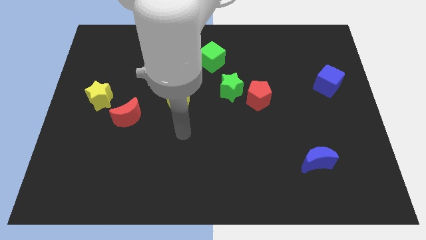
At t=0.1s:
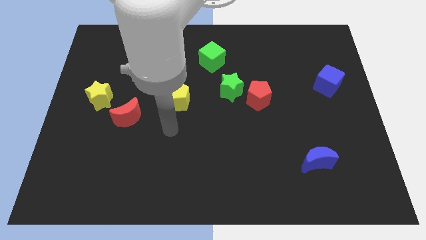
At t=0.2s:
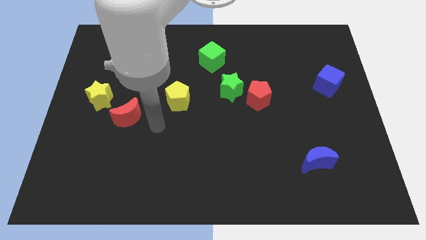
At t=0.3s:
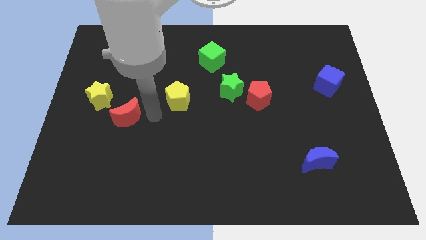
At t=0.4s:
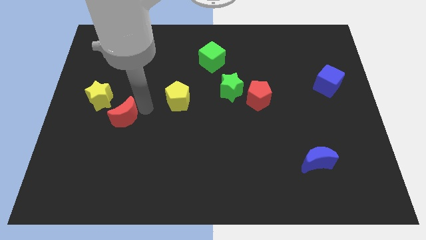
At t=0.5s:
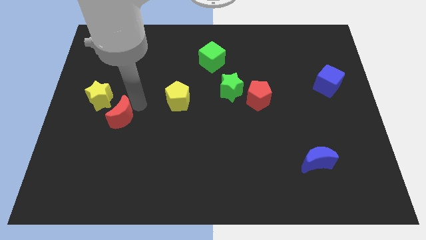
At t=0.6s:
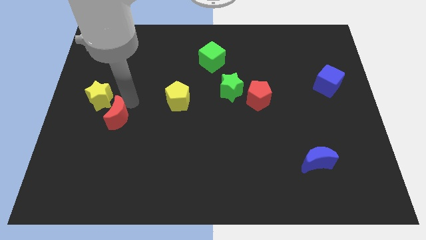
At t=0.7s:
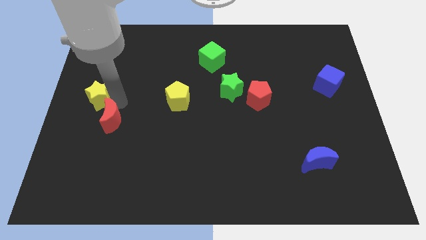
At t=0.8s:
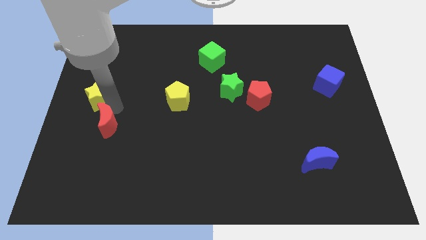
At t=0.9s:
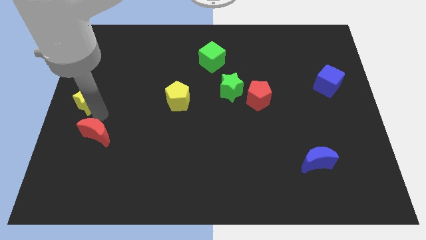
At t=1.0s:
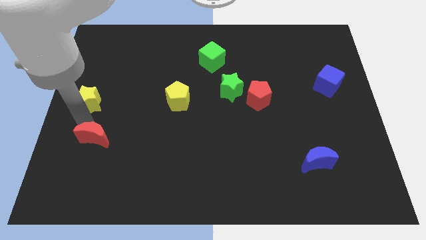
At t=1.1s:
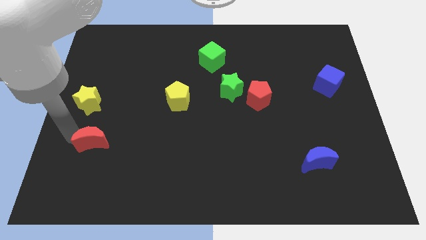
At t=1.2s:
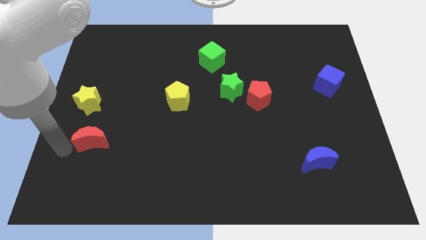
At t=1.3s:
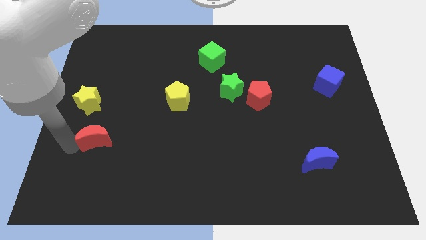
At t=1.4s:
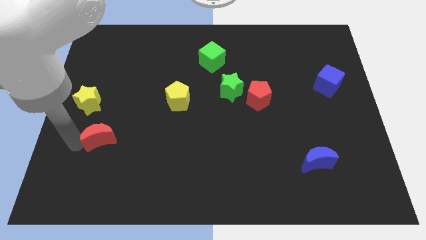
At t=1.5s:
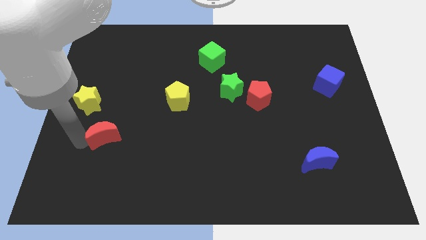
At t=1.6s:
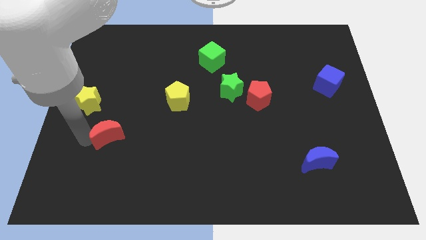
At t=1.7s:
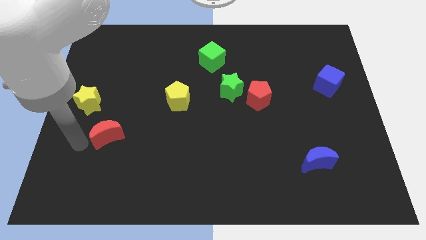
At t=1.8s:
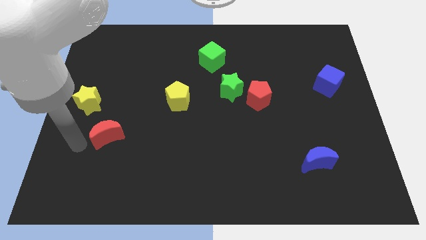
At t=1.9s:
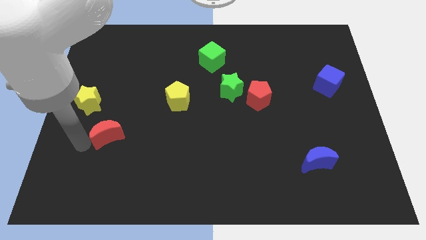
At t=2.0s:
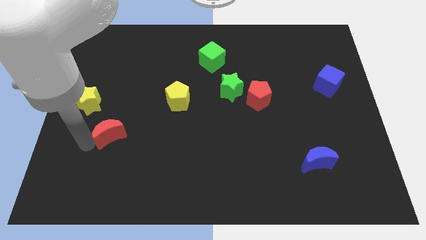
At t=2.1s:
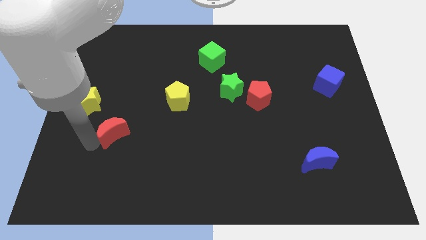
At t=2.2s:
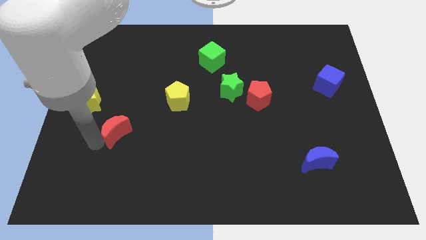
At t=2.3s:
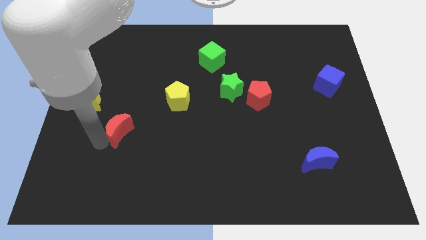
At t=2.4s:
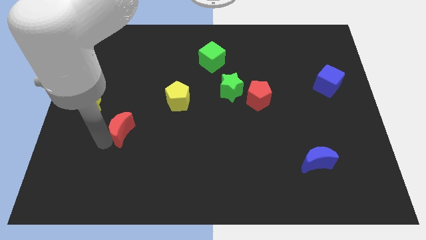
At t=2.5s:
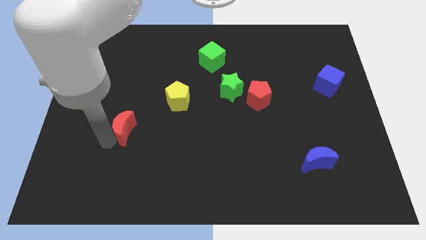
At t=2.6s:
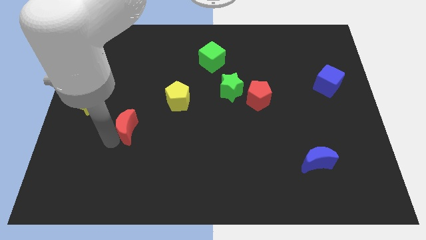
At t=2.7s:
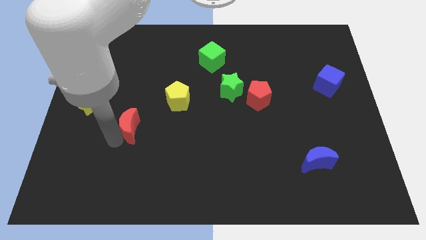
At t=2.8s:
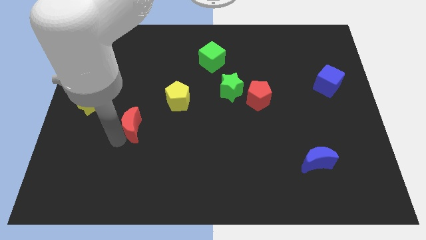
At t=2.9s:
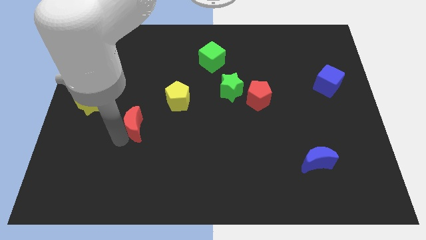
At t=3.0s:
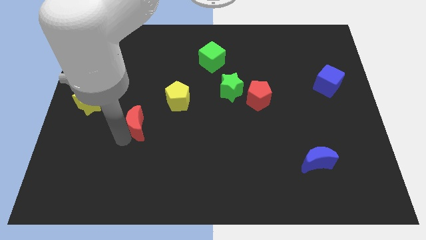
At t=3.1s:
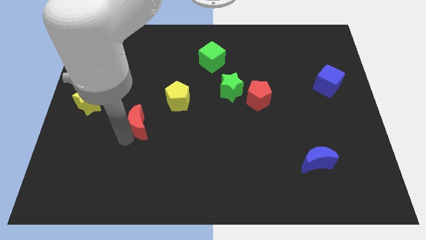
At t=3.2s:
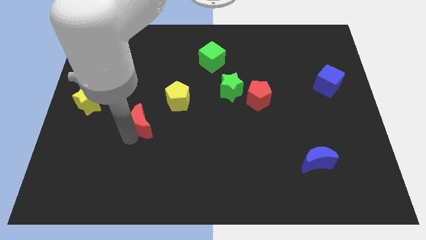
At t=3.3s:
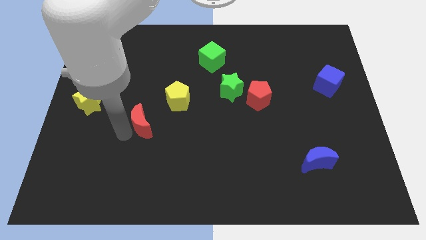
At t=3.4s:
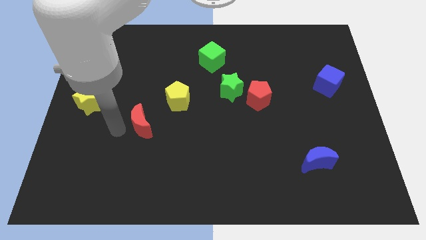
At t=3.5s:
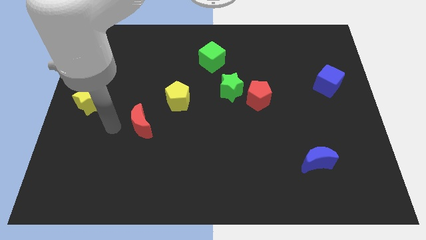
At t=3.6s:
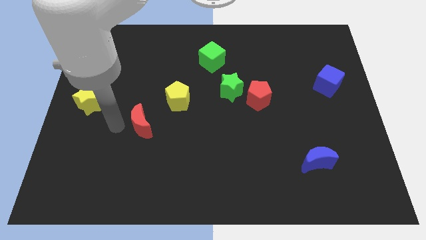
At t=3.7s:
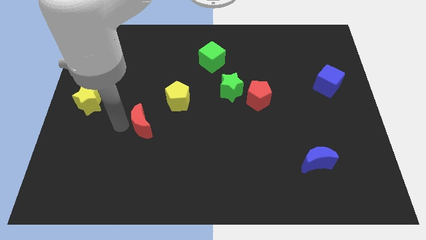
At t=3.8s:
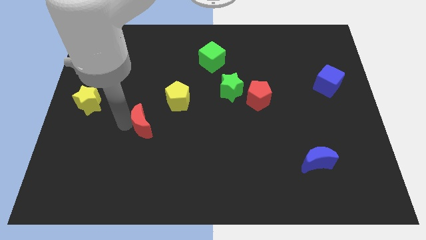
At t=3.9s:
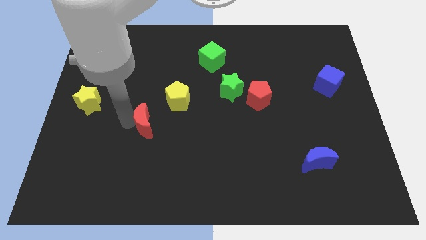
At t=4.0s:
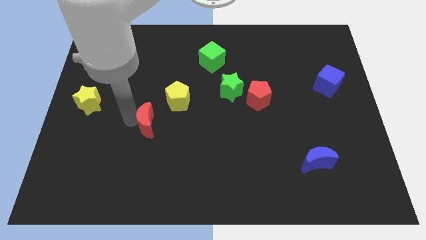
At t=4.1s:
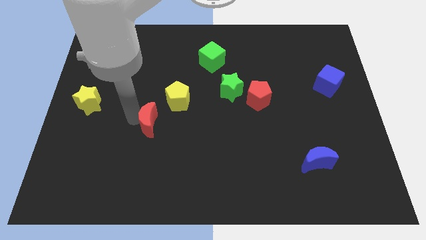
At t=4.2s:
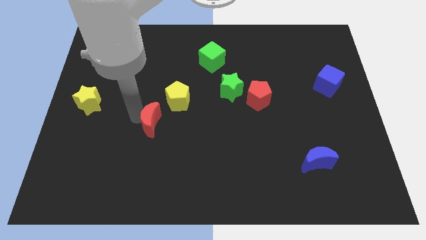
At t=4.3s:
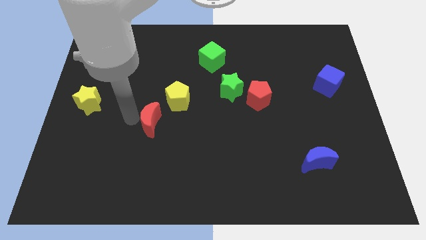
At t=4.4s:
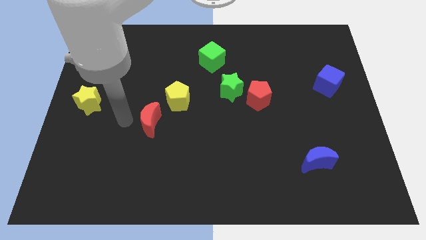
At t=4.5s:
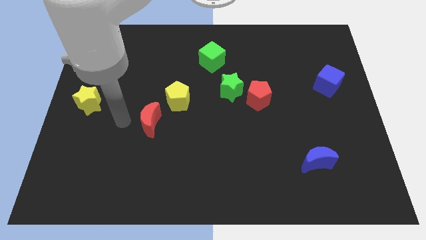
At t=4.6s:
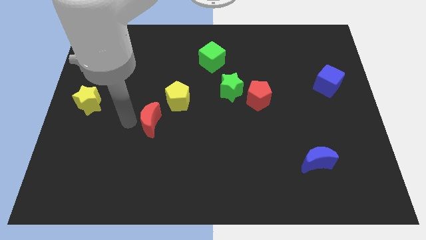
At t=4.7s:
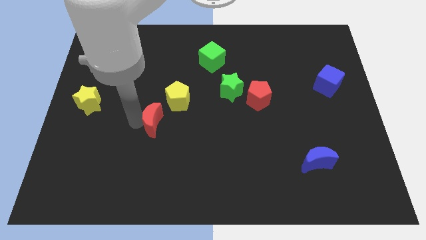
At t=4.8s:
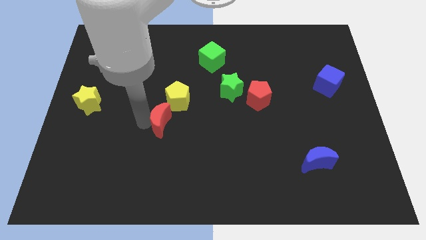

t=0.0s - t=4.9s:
move the red moon to the right slightly

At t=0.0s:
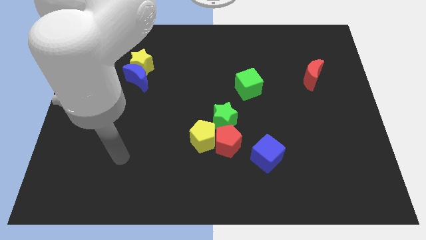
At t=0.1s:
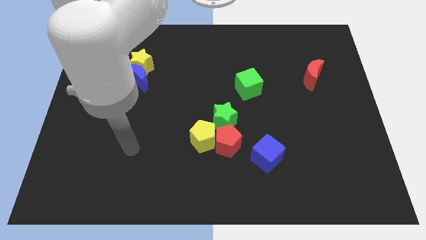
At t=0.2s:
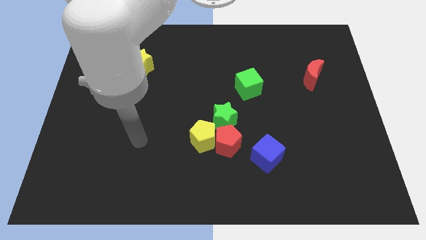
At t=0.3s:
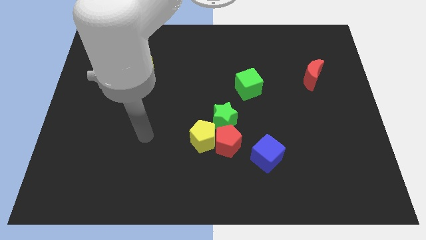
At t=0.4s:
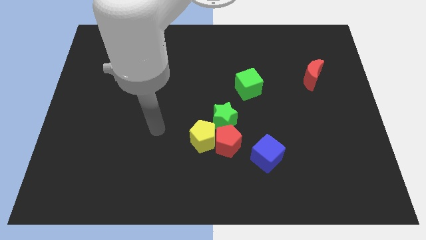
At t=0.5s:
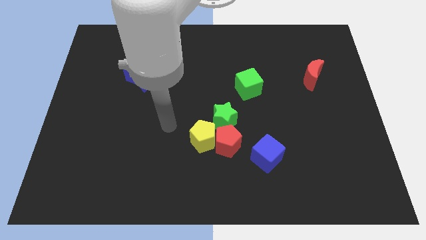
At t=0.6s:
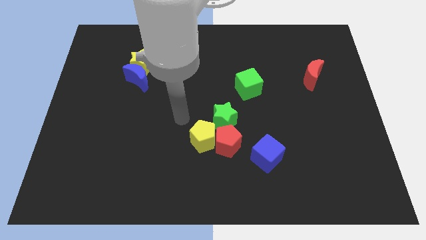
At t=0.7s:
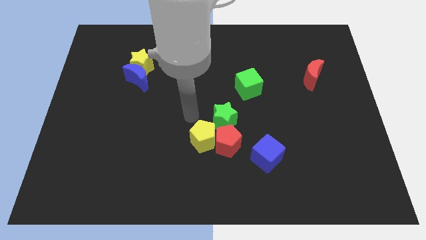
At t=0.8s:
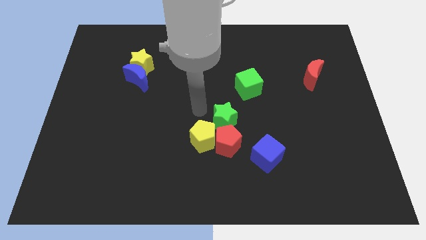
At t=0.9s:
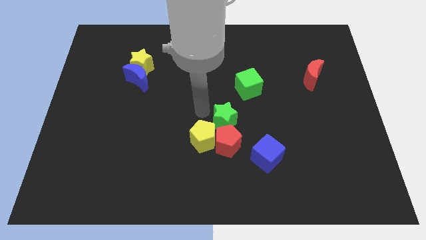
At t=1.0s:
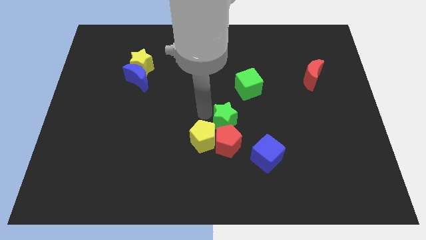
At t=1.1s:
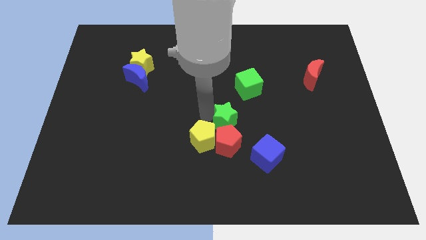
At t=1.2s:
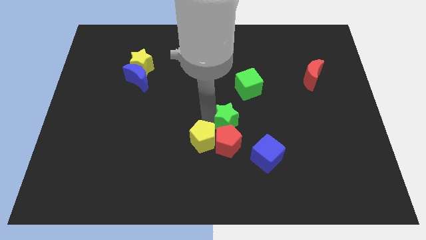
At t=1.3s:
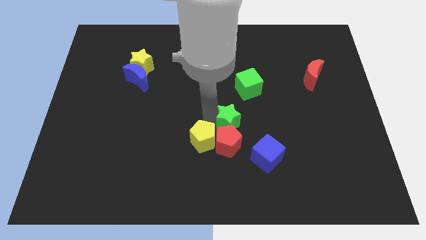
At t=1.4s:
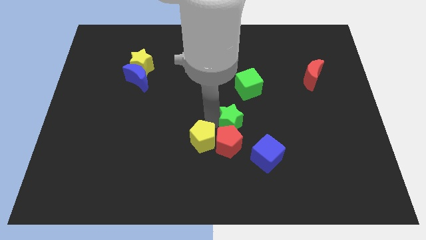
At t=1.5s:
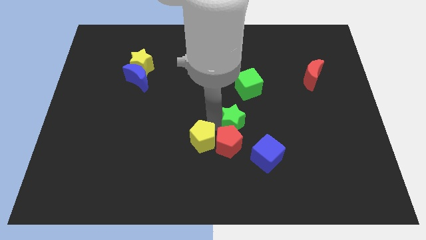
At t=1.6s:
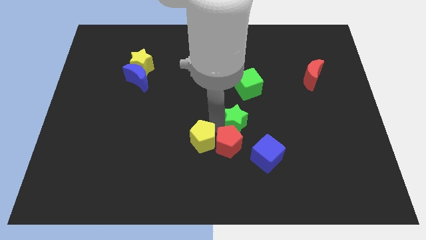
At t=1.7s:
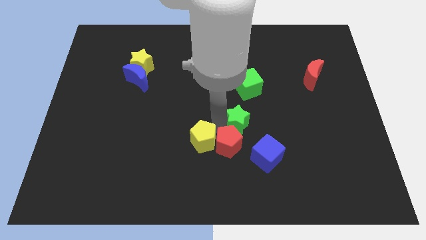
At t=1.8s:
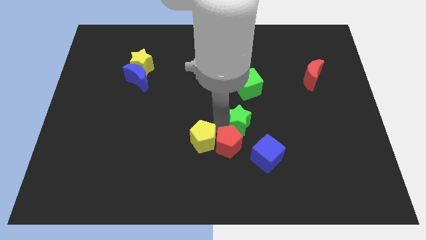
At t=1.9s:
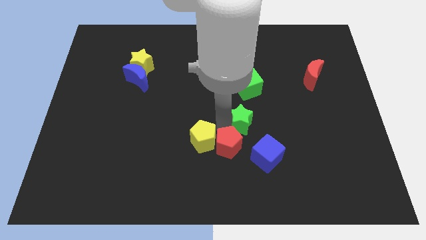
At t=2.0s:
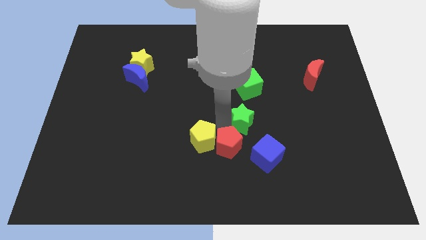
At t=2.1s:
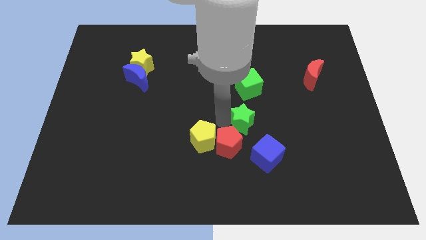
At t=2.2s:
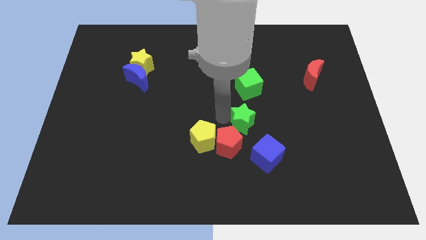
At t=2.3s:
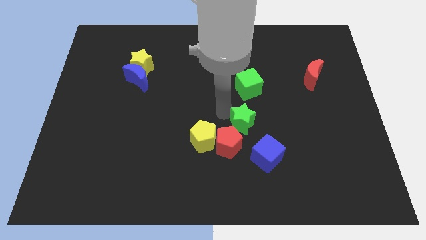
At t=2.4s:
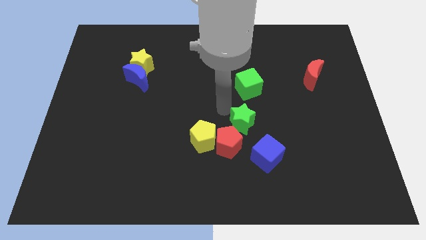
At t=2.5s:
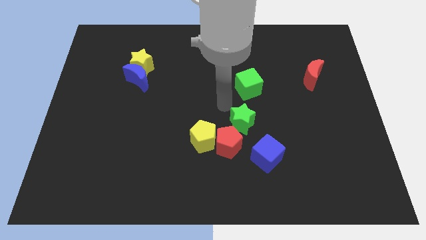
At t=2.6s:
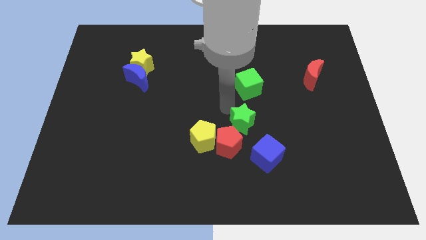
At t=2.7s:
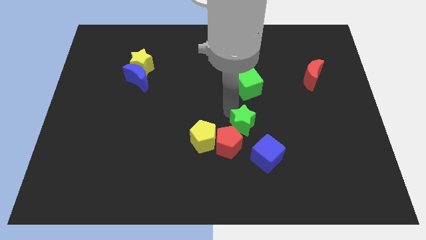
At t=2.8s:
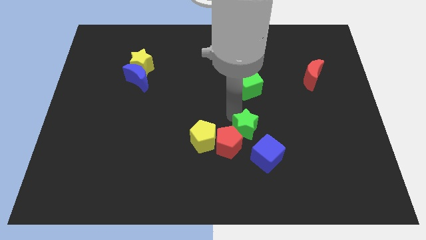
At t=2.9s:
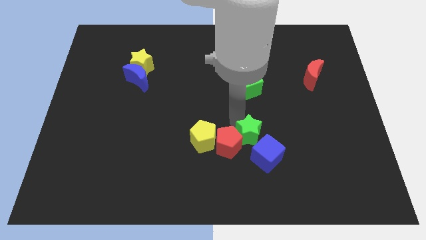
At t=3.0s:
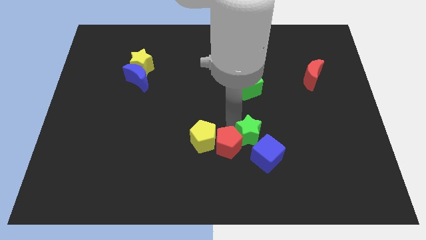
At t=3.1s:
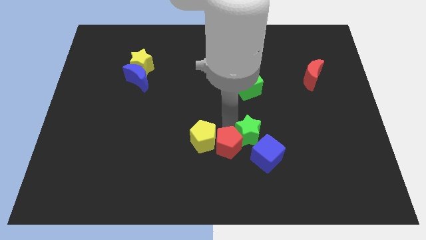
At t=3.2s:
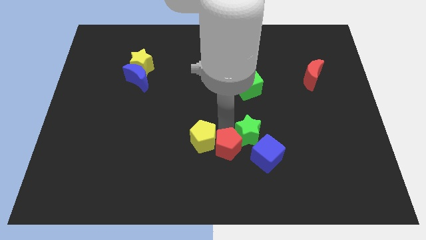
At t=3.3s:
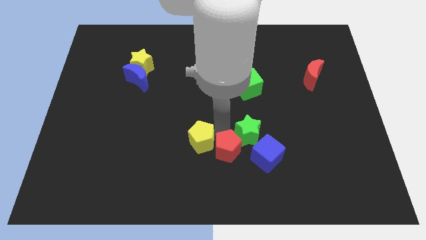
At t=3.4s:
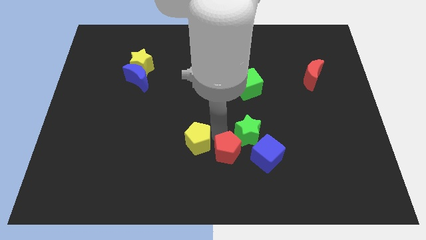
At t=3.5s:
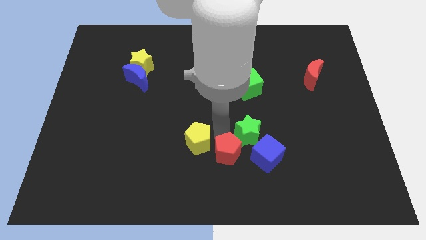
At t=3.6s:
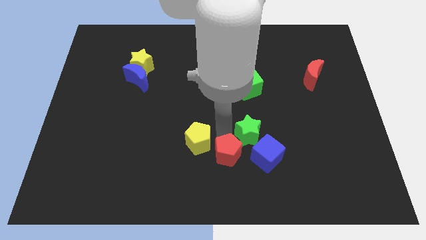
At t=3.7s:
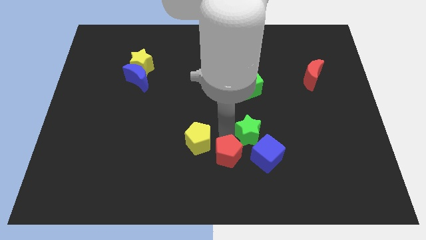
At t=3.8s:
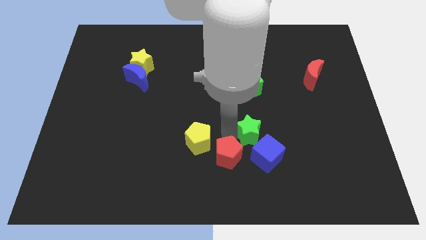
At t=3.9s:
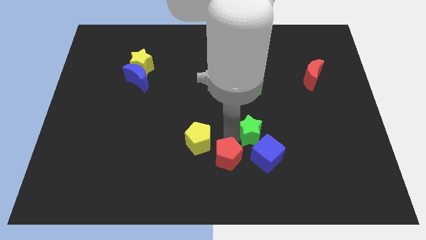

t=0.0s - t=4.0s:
push the green star down and then right slightly
